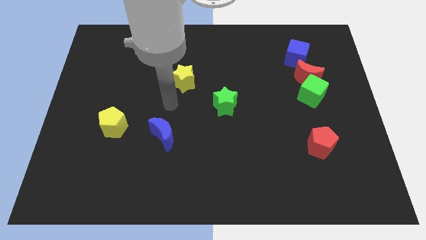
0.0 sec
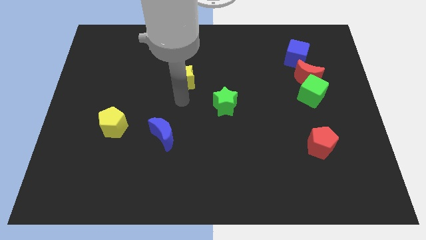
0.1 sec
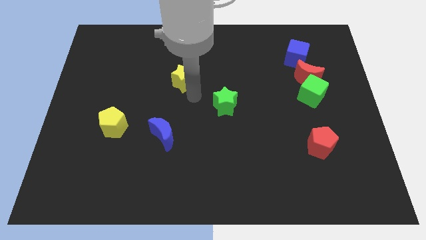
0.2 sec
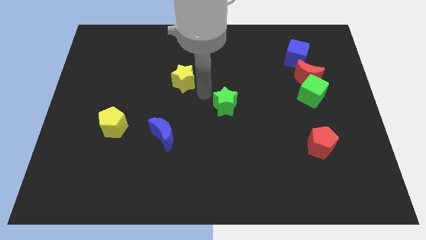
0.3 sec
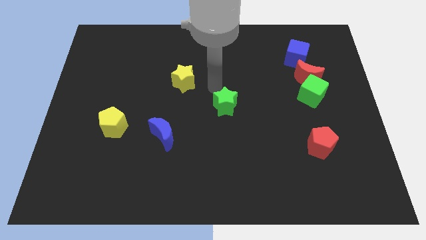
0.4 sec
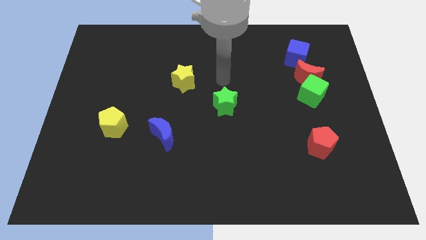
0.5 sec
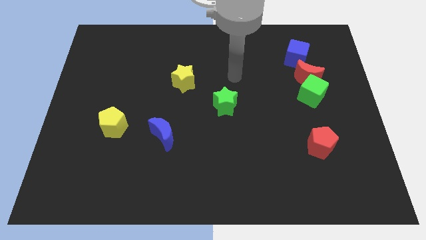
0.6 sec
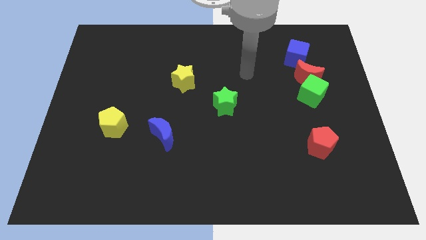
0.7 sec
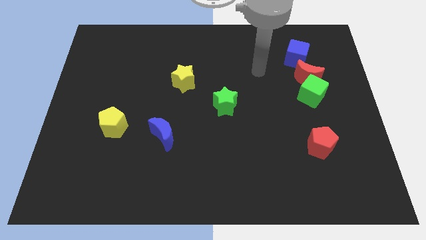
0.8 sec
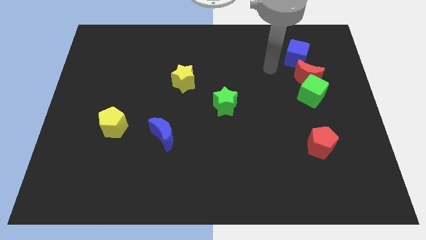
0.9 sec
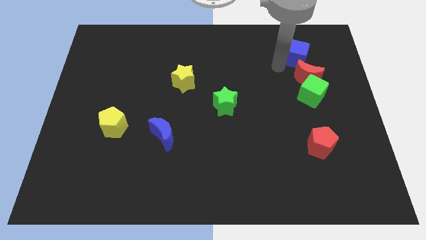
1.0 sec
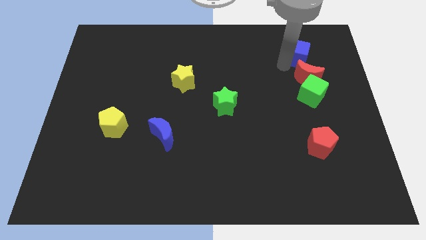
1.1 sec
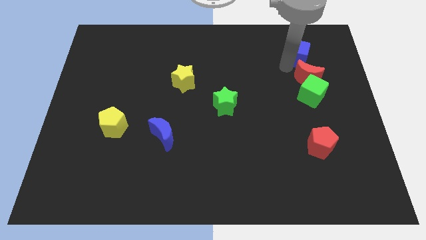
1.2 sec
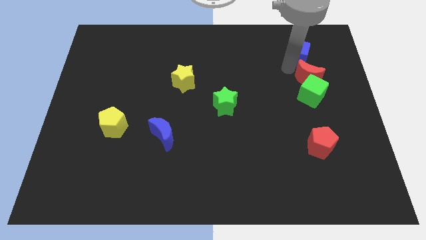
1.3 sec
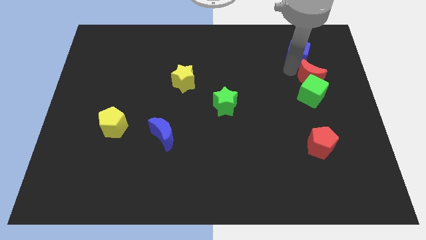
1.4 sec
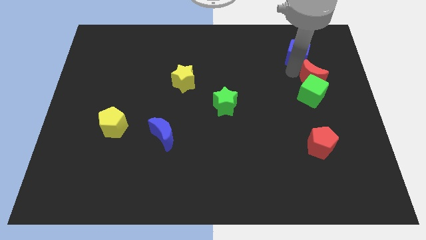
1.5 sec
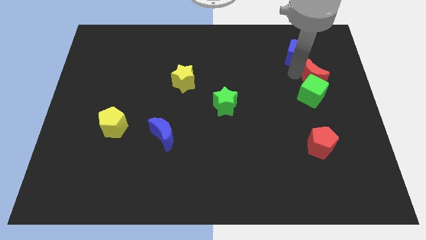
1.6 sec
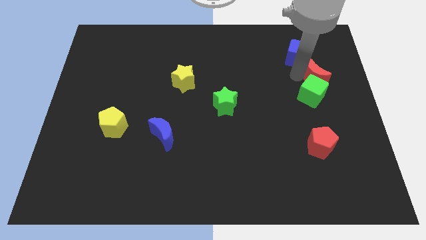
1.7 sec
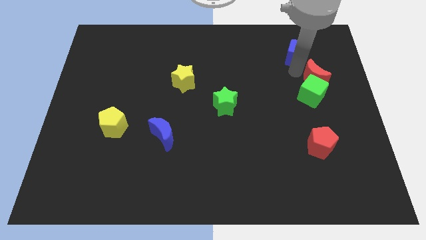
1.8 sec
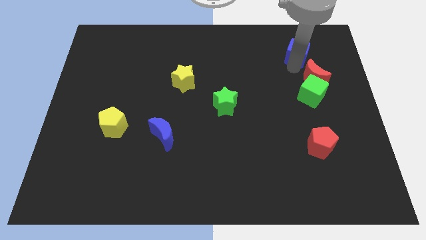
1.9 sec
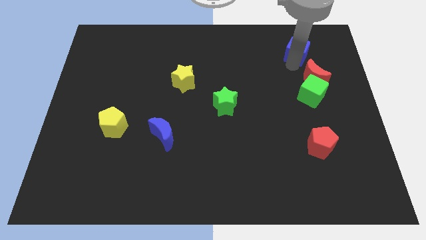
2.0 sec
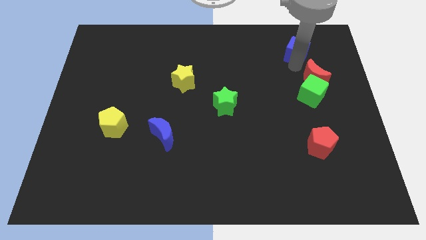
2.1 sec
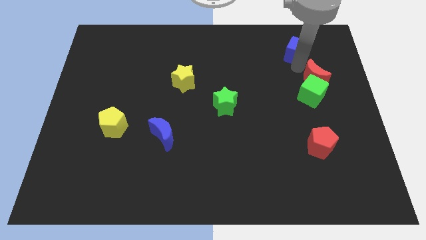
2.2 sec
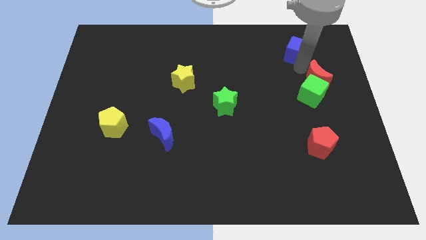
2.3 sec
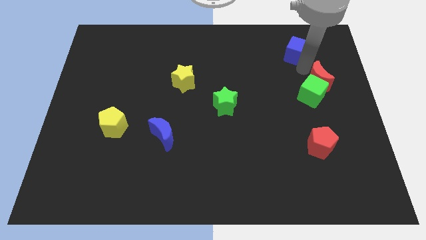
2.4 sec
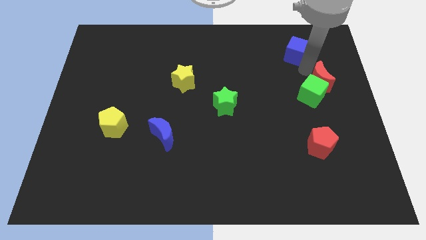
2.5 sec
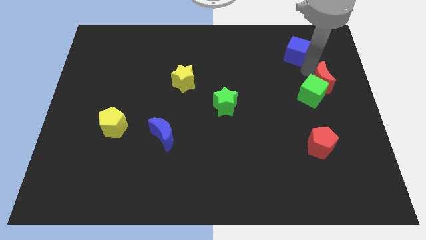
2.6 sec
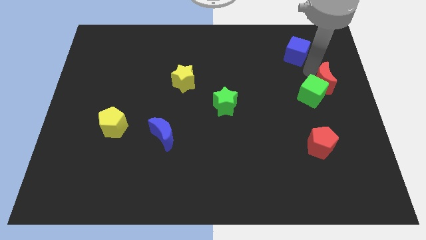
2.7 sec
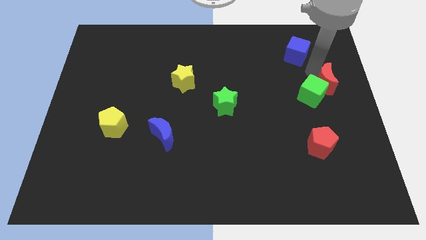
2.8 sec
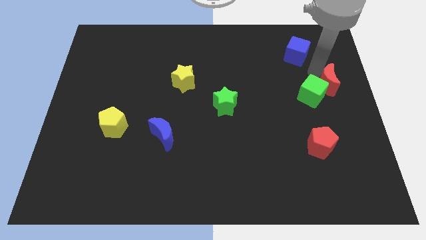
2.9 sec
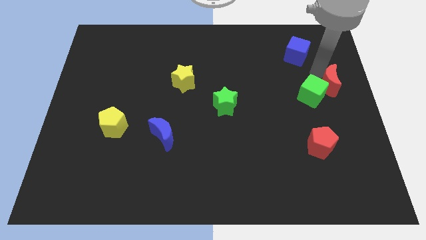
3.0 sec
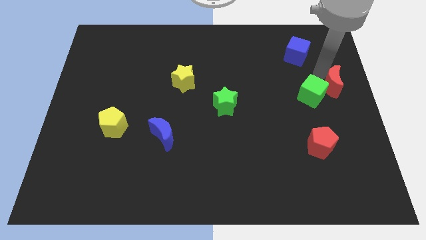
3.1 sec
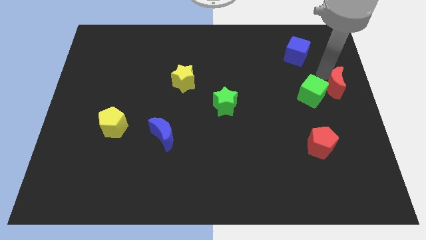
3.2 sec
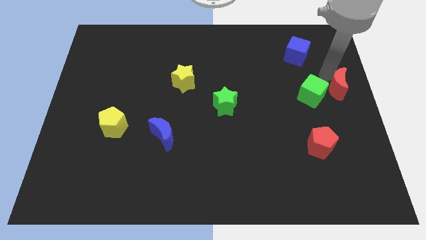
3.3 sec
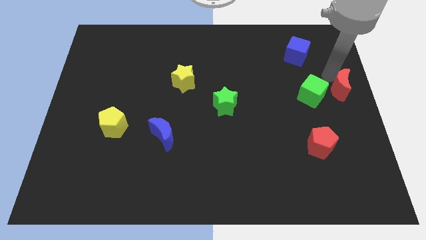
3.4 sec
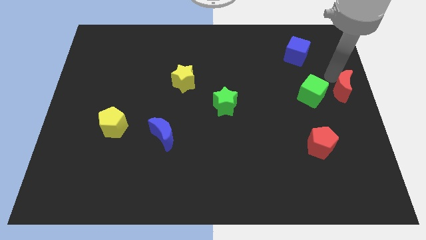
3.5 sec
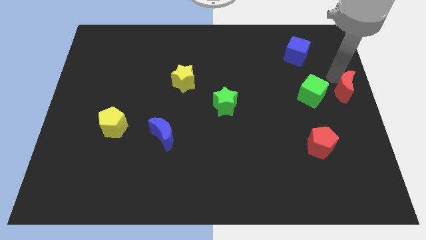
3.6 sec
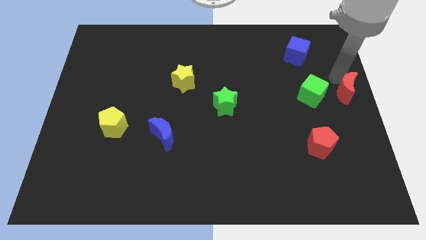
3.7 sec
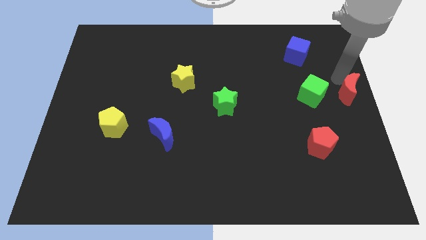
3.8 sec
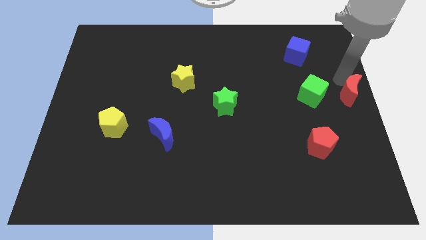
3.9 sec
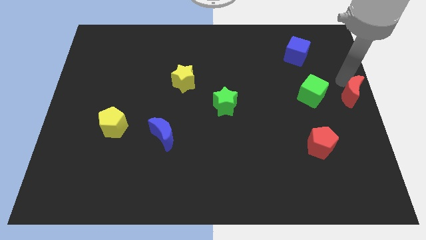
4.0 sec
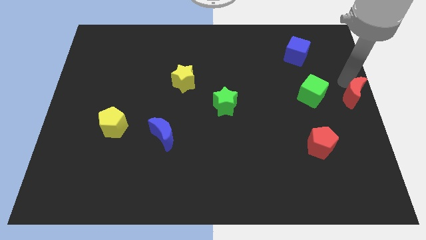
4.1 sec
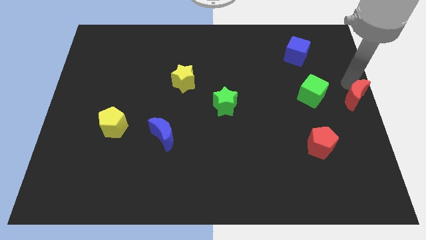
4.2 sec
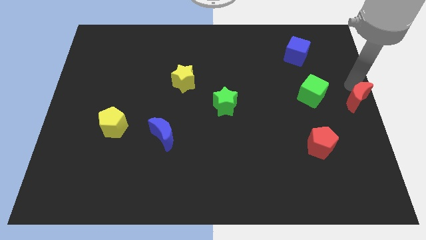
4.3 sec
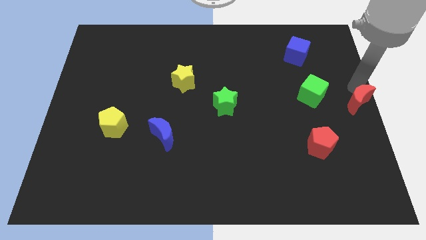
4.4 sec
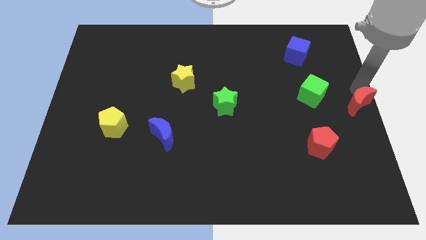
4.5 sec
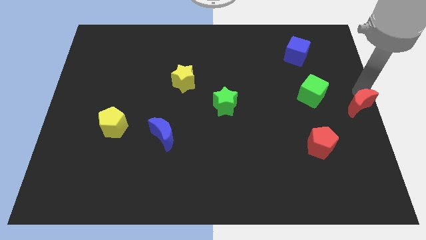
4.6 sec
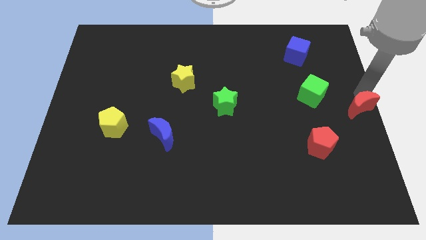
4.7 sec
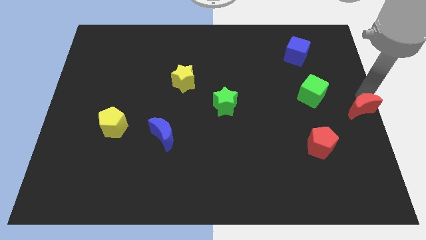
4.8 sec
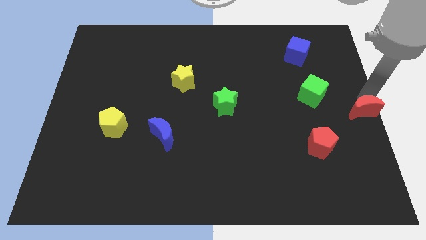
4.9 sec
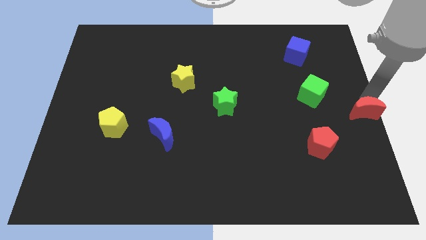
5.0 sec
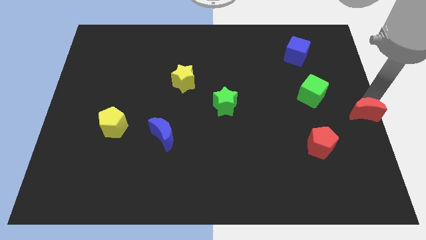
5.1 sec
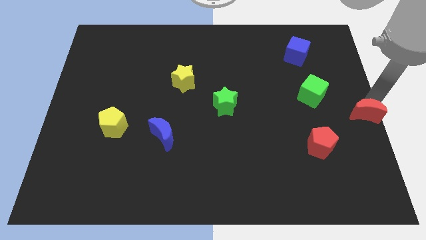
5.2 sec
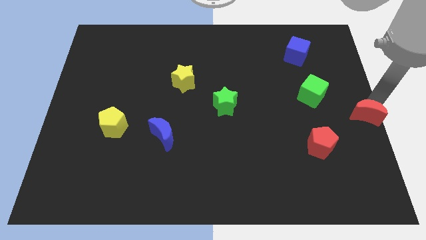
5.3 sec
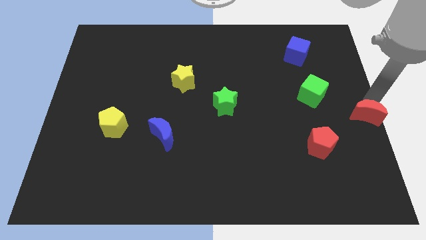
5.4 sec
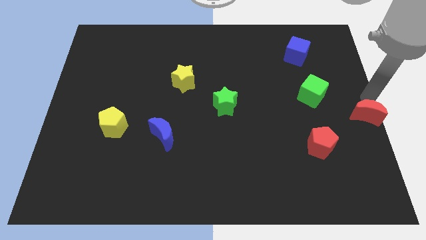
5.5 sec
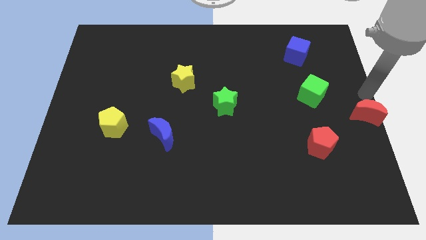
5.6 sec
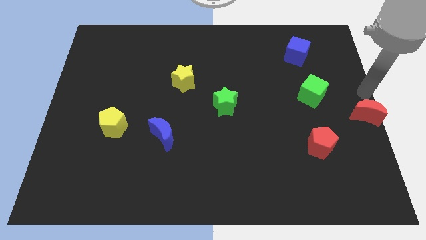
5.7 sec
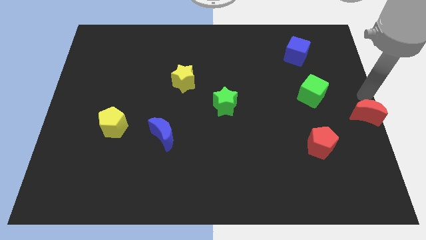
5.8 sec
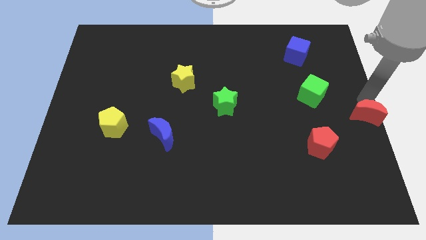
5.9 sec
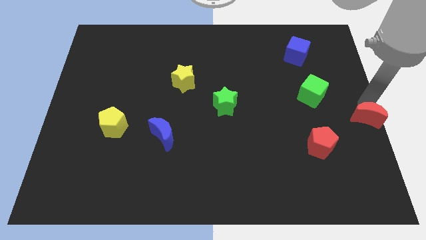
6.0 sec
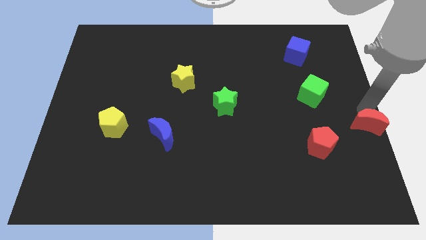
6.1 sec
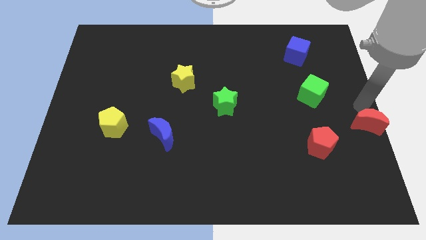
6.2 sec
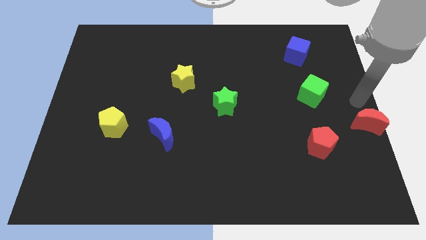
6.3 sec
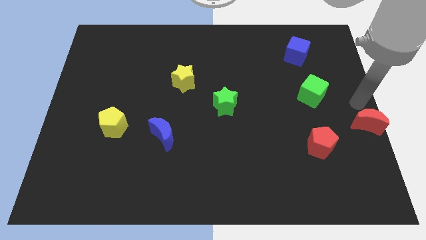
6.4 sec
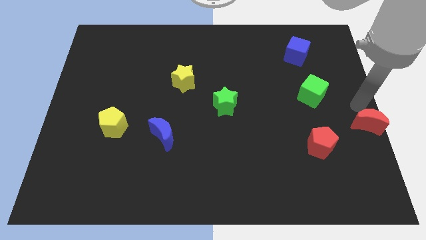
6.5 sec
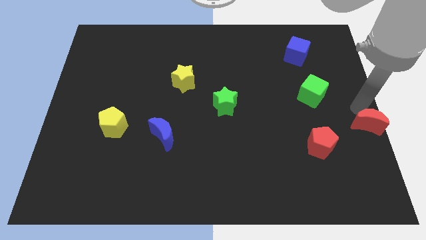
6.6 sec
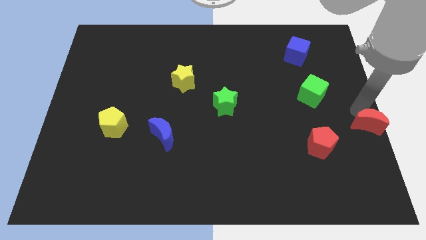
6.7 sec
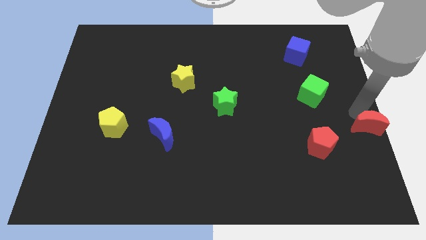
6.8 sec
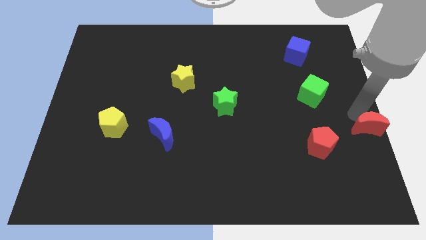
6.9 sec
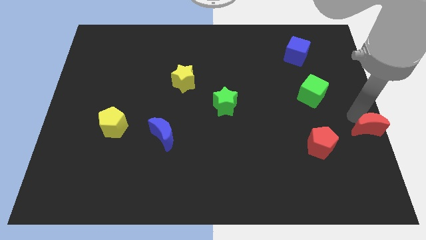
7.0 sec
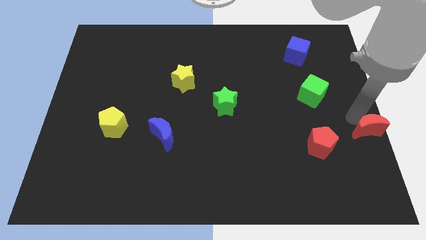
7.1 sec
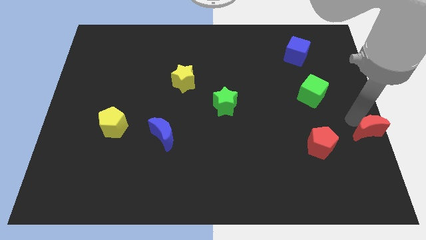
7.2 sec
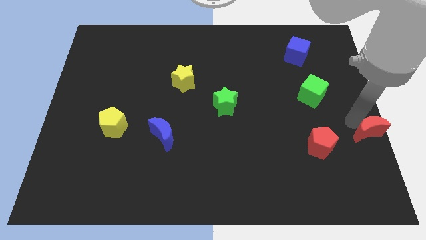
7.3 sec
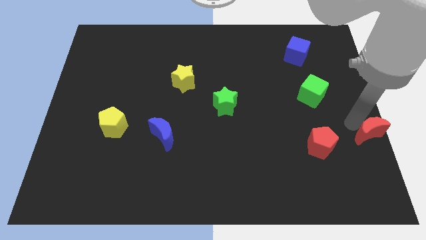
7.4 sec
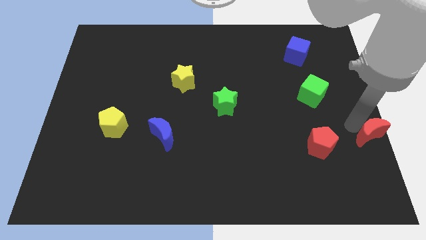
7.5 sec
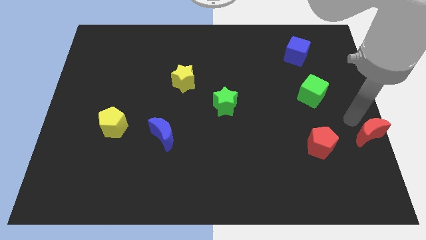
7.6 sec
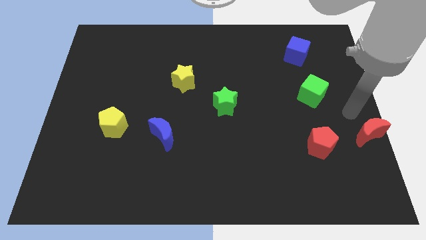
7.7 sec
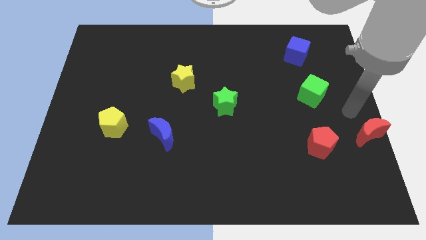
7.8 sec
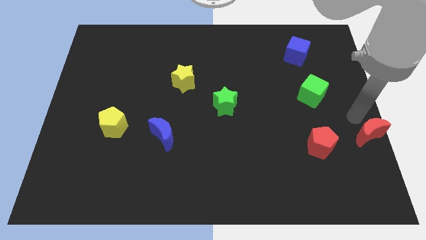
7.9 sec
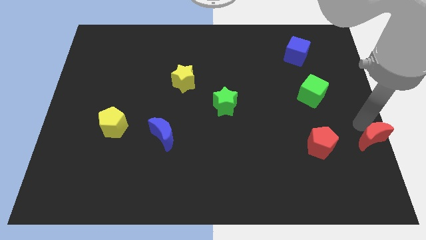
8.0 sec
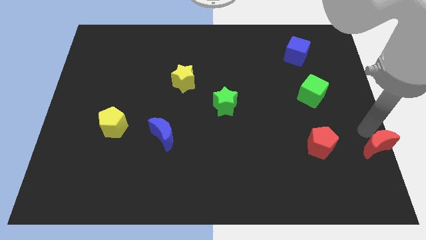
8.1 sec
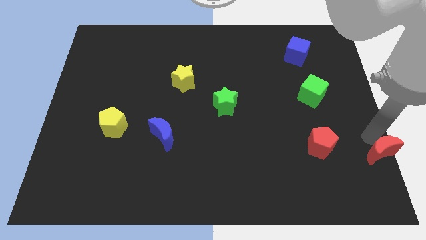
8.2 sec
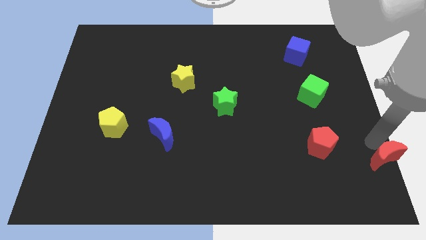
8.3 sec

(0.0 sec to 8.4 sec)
slide the red moon to the lower right corner
